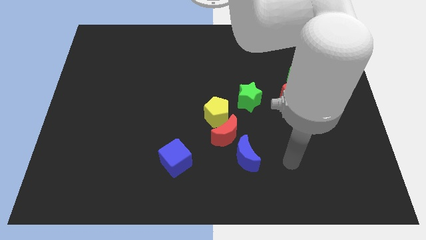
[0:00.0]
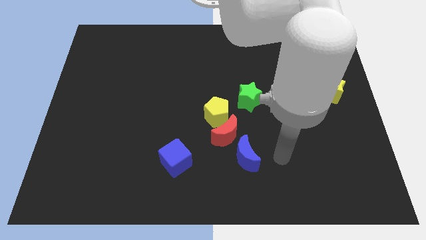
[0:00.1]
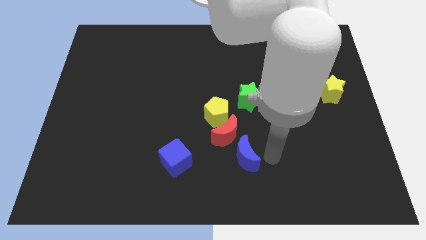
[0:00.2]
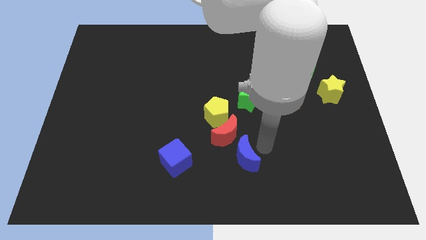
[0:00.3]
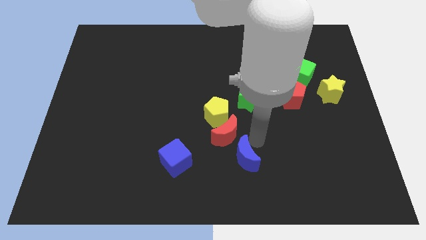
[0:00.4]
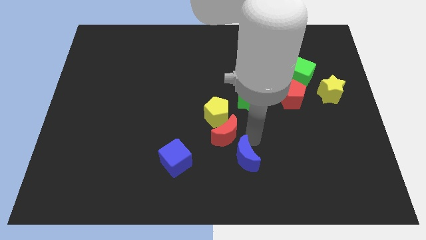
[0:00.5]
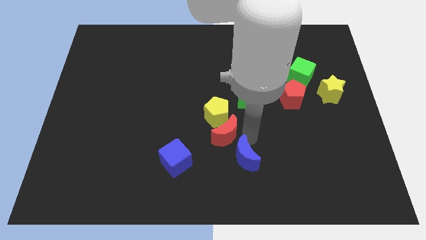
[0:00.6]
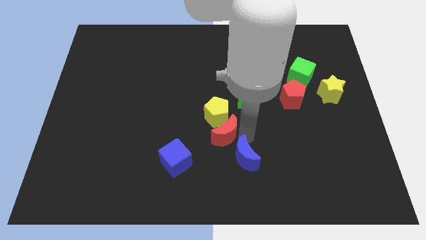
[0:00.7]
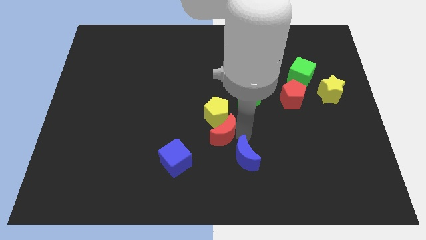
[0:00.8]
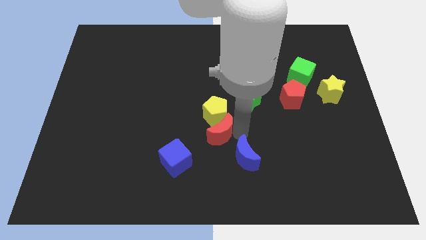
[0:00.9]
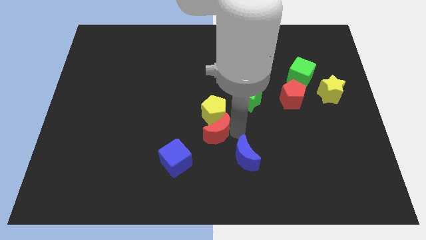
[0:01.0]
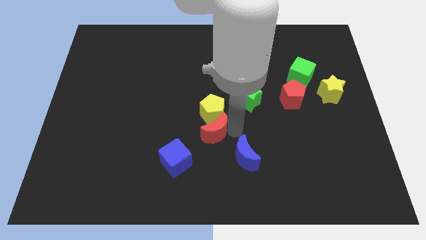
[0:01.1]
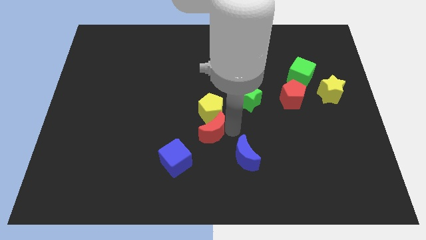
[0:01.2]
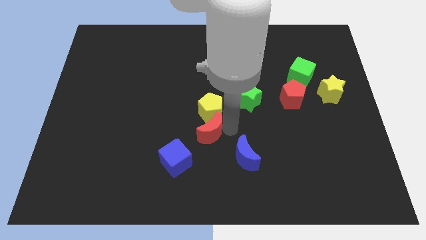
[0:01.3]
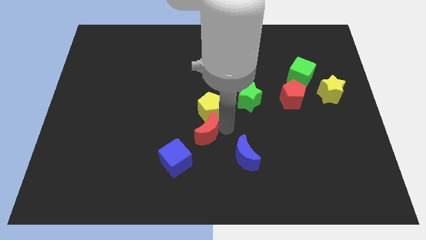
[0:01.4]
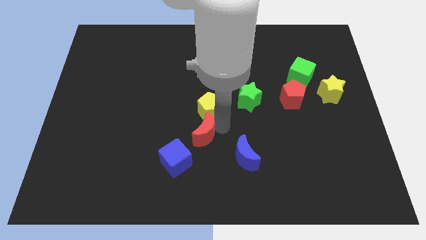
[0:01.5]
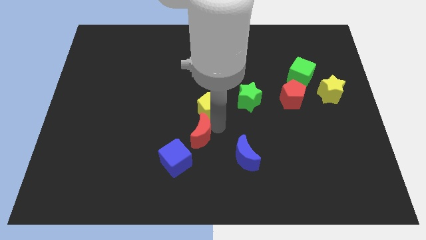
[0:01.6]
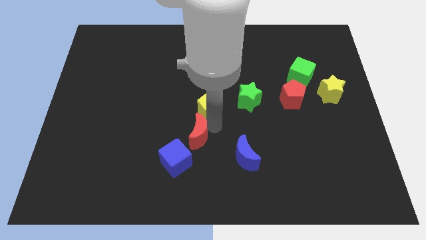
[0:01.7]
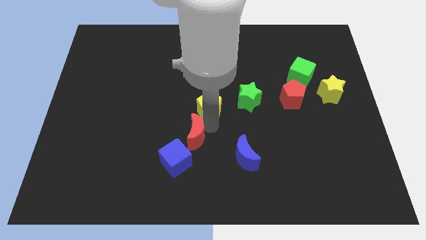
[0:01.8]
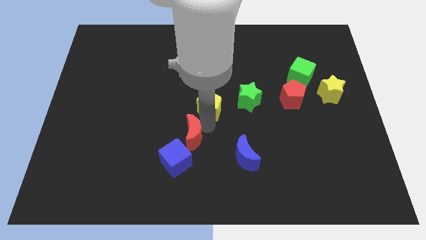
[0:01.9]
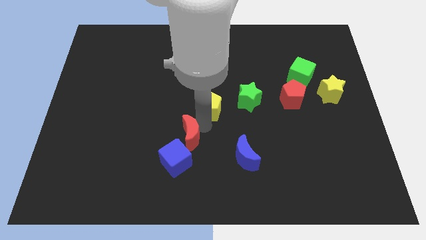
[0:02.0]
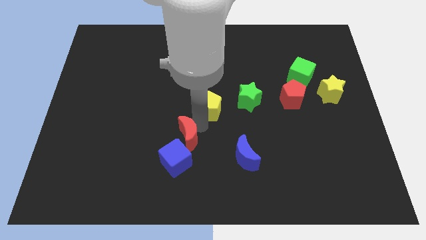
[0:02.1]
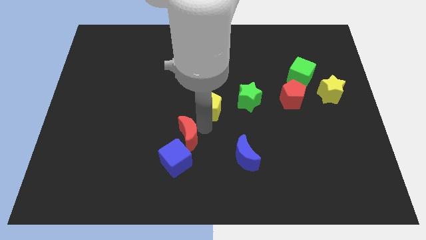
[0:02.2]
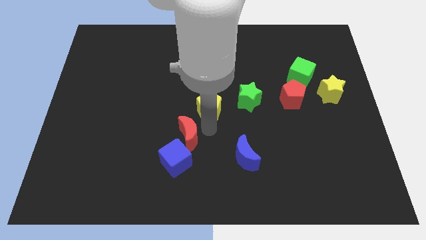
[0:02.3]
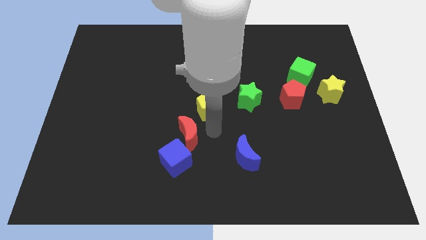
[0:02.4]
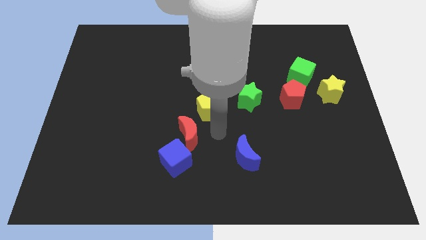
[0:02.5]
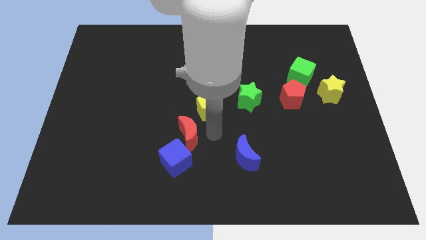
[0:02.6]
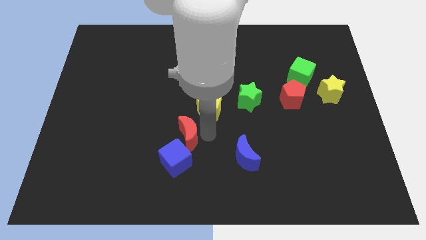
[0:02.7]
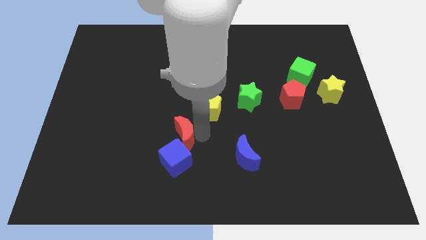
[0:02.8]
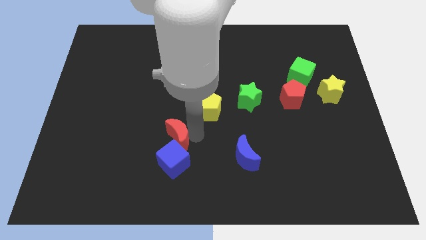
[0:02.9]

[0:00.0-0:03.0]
pull the red moon apart from the yellow pentagon and blue moon

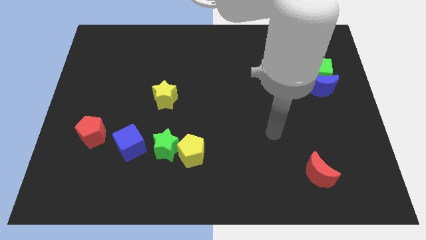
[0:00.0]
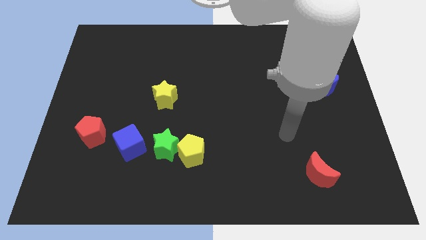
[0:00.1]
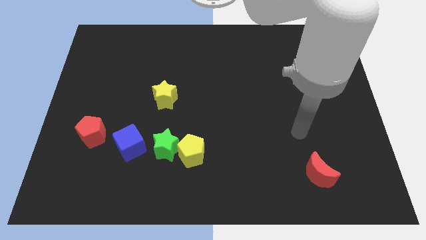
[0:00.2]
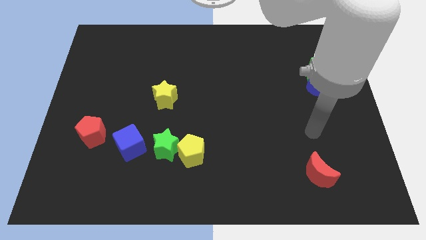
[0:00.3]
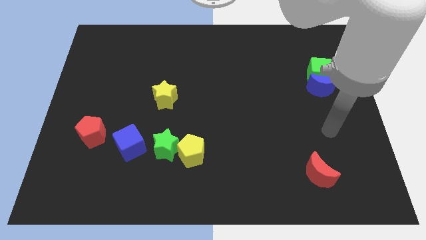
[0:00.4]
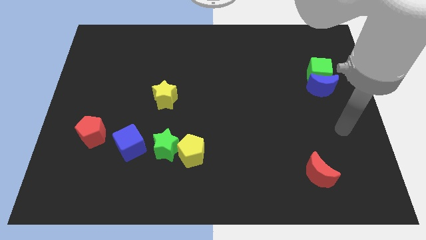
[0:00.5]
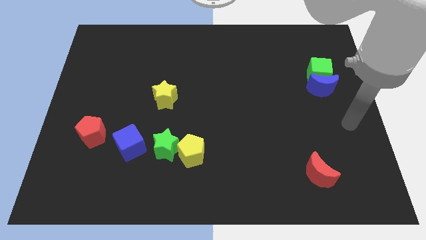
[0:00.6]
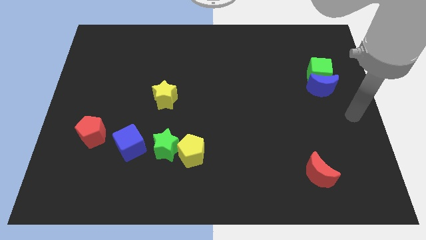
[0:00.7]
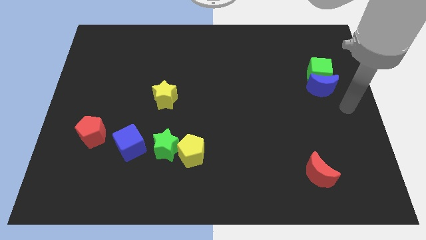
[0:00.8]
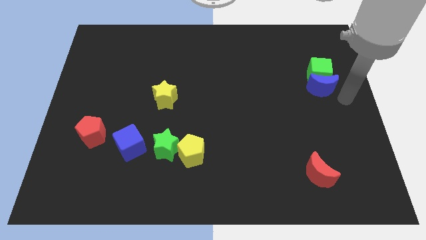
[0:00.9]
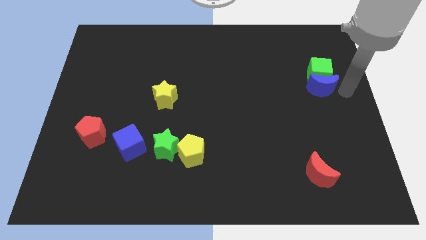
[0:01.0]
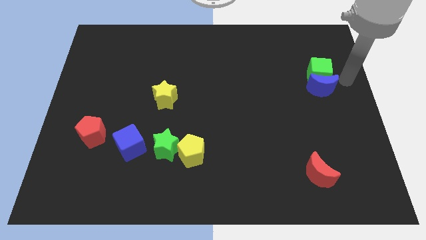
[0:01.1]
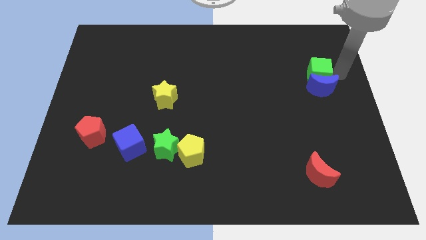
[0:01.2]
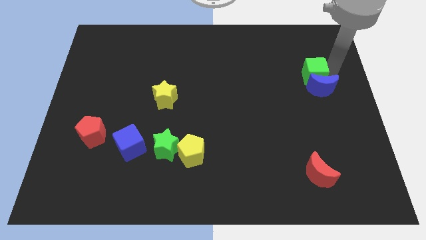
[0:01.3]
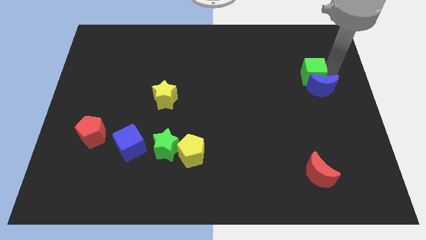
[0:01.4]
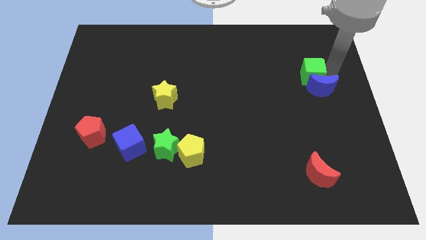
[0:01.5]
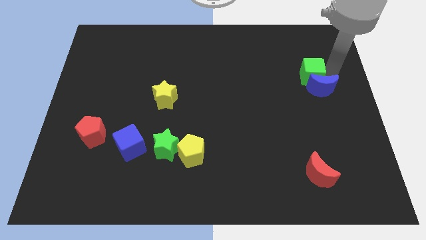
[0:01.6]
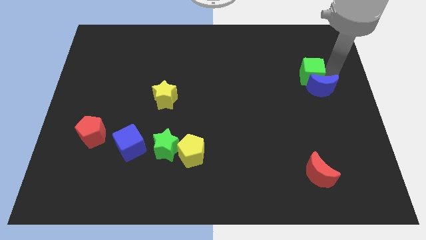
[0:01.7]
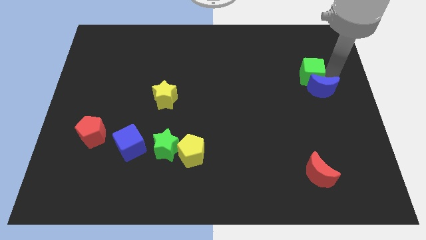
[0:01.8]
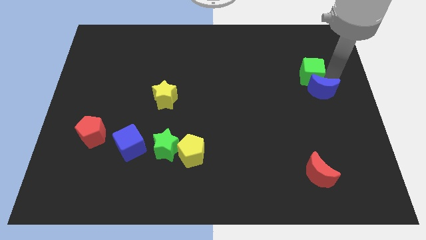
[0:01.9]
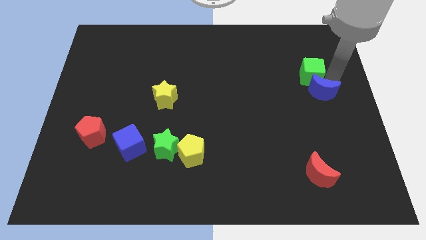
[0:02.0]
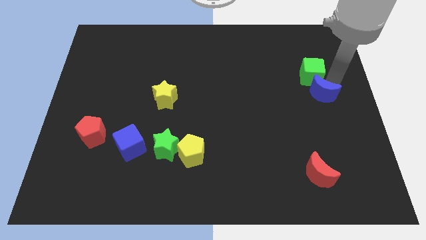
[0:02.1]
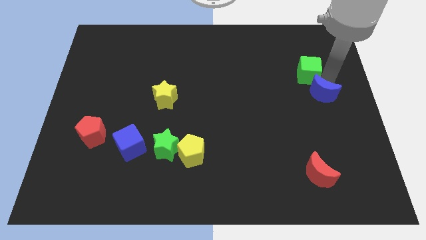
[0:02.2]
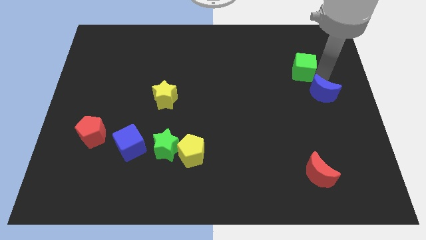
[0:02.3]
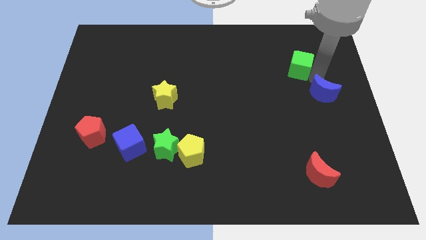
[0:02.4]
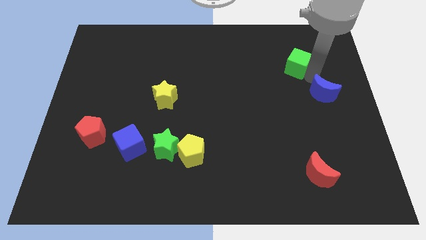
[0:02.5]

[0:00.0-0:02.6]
move the blue moon away from the green cube

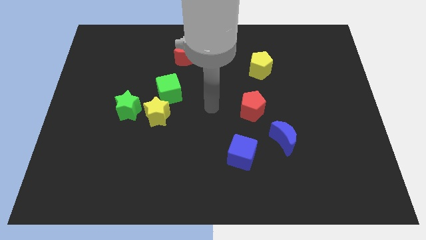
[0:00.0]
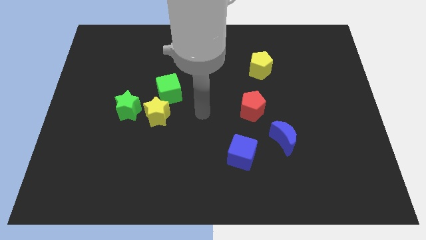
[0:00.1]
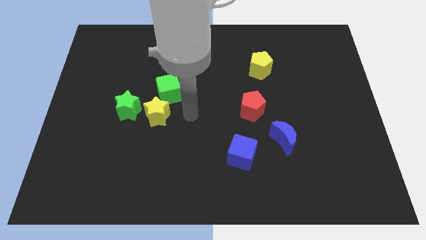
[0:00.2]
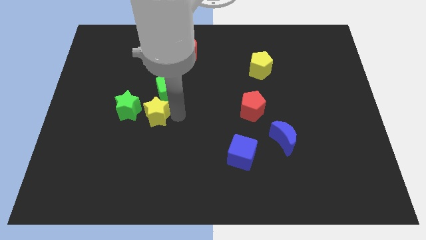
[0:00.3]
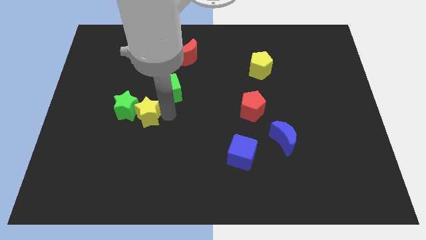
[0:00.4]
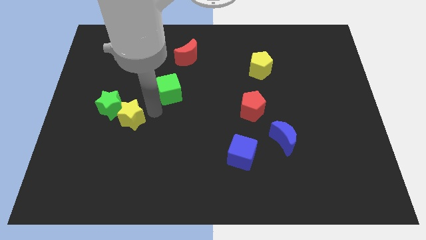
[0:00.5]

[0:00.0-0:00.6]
separate the green cube from the yellow star

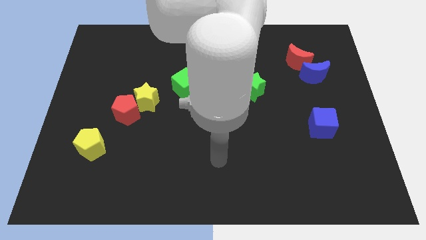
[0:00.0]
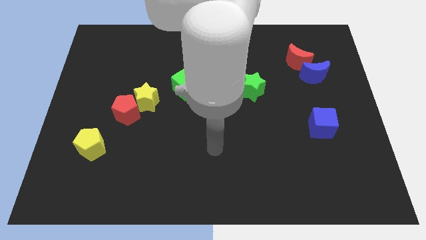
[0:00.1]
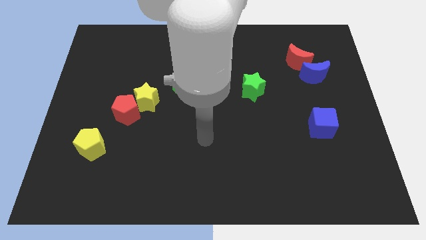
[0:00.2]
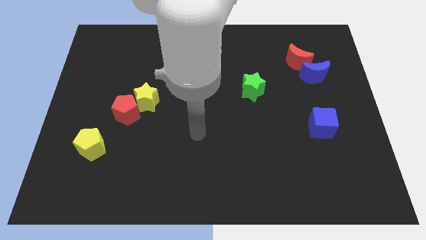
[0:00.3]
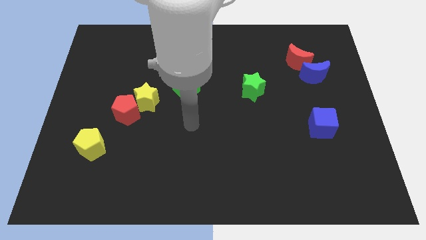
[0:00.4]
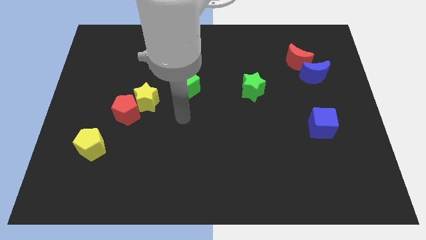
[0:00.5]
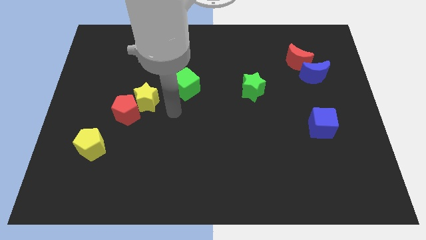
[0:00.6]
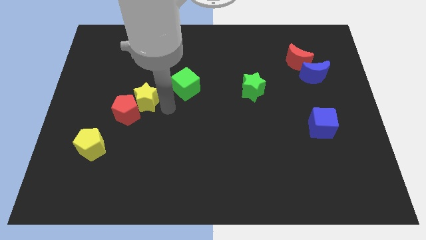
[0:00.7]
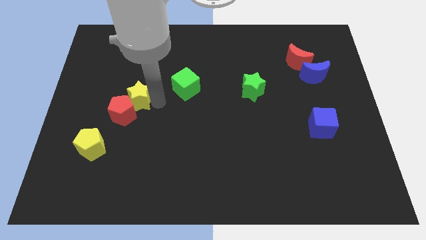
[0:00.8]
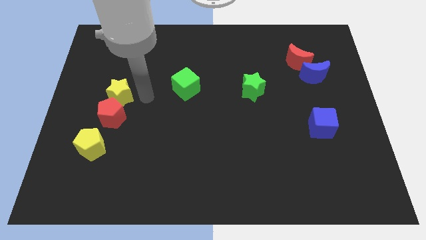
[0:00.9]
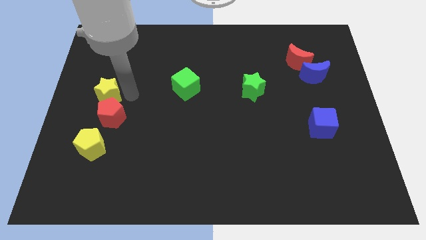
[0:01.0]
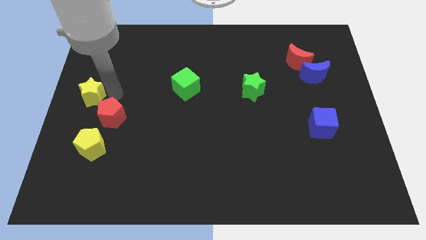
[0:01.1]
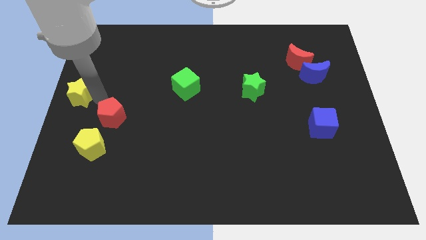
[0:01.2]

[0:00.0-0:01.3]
pull the red pentagon apart from the yellow star

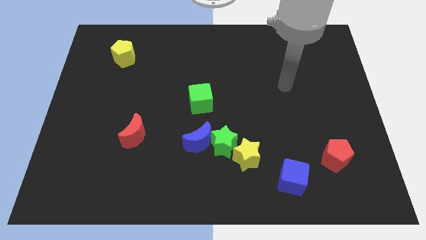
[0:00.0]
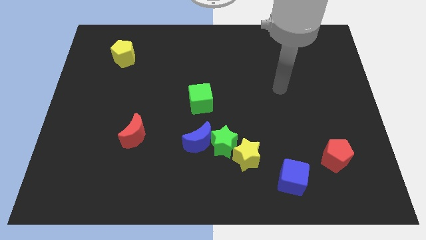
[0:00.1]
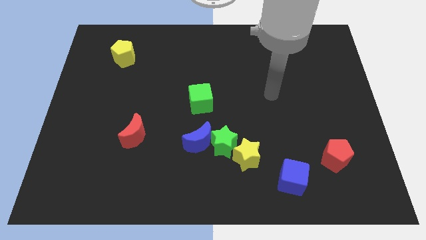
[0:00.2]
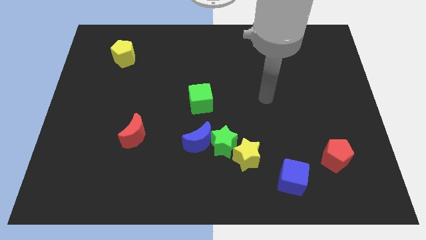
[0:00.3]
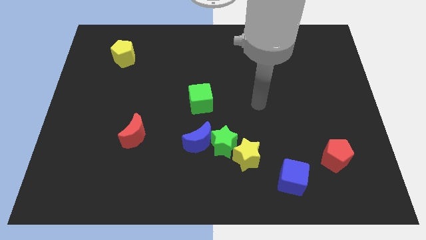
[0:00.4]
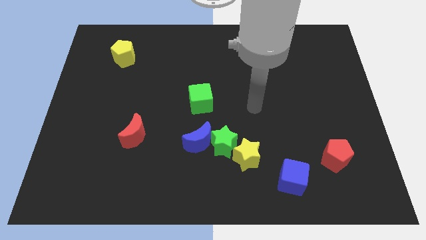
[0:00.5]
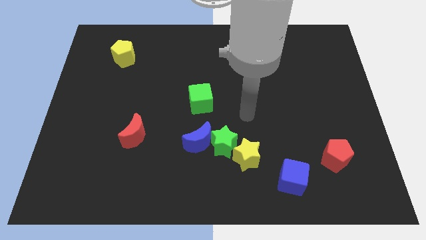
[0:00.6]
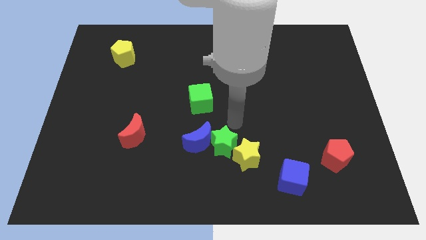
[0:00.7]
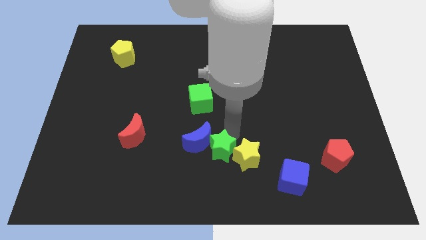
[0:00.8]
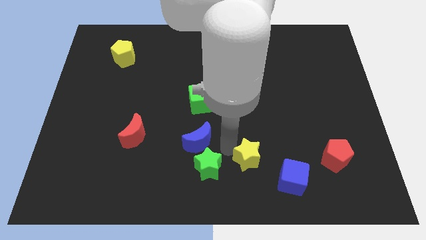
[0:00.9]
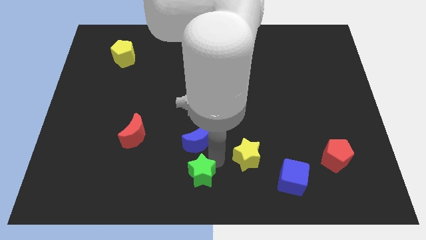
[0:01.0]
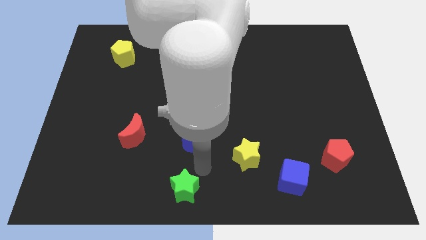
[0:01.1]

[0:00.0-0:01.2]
move the blue moon away from the green star

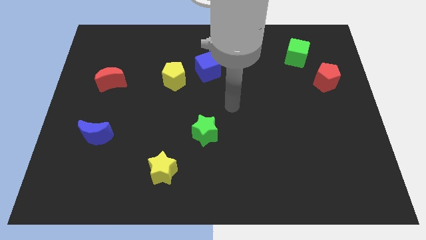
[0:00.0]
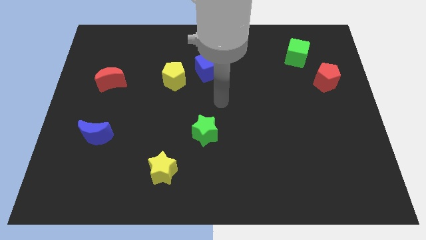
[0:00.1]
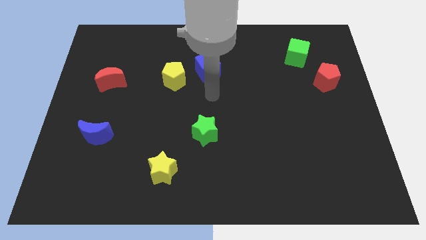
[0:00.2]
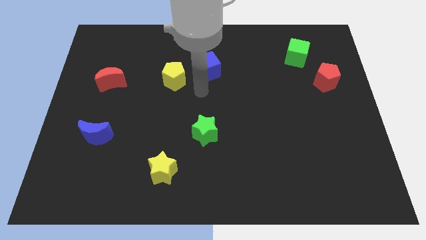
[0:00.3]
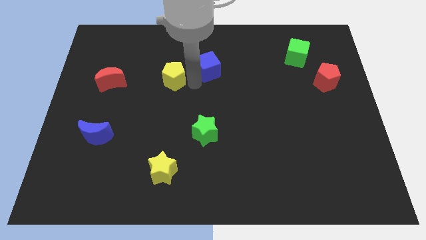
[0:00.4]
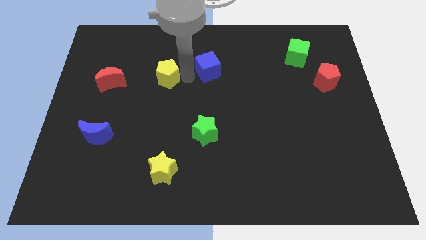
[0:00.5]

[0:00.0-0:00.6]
move the blue cube away from the yellow pentagon

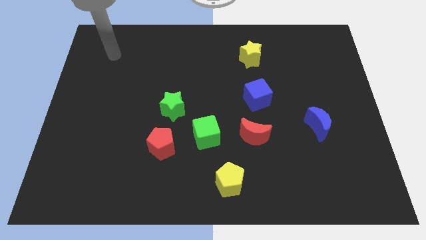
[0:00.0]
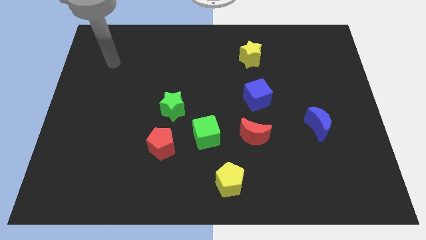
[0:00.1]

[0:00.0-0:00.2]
separate the red pentagon from the green cube
